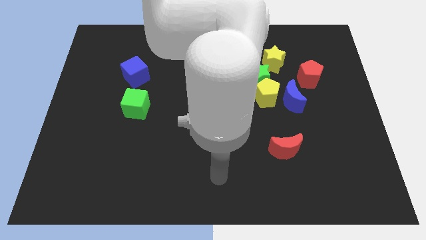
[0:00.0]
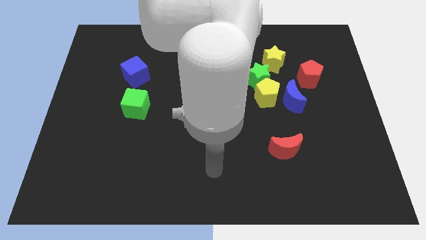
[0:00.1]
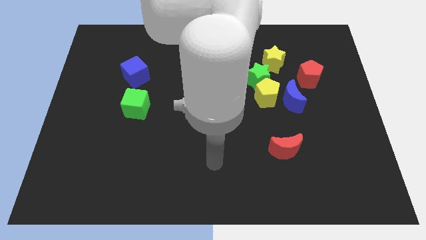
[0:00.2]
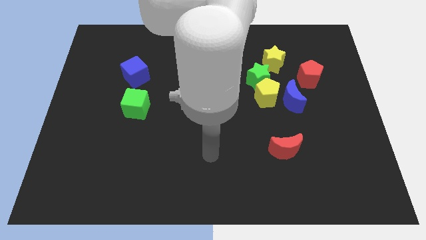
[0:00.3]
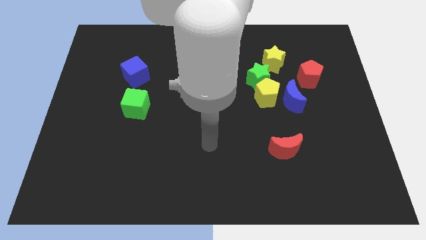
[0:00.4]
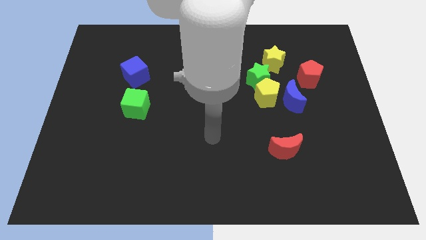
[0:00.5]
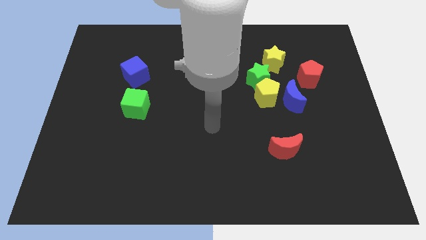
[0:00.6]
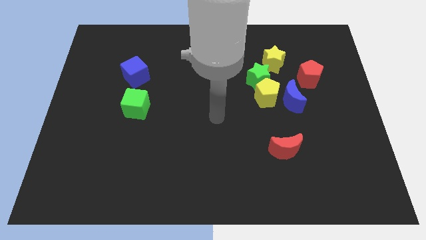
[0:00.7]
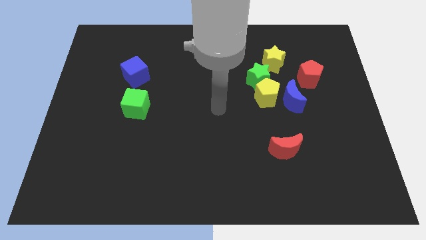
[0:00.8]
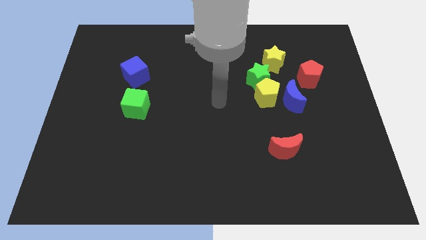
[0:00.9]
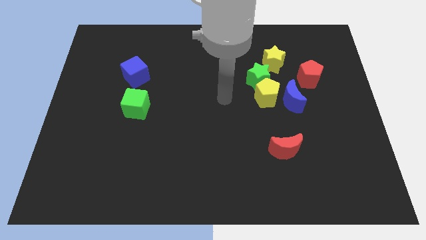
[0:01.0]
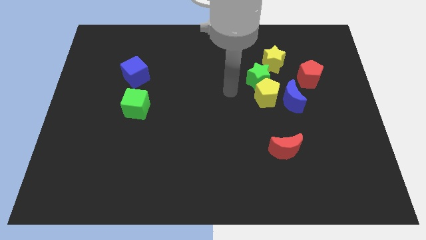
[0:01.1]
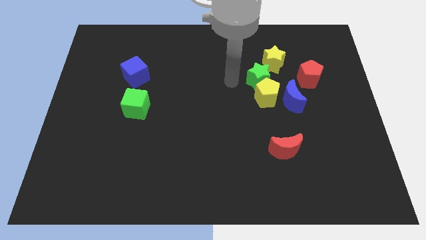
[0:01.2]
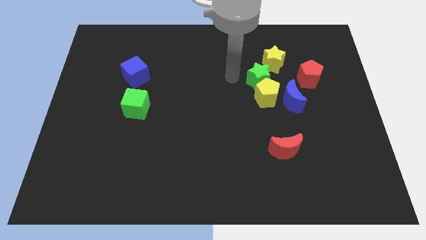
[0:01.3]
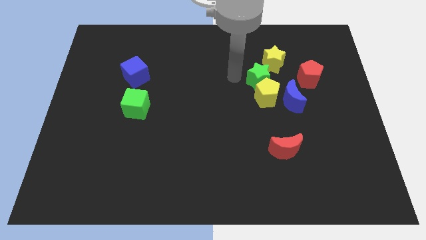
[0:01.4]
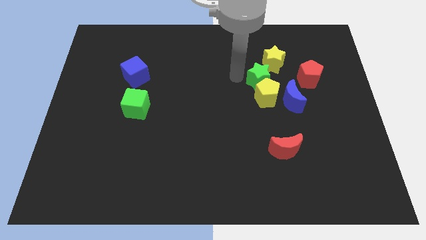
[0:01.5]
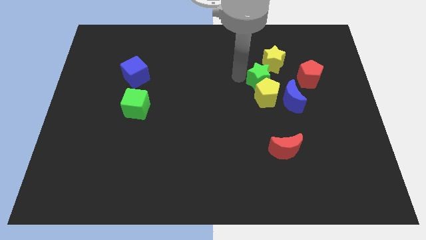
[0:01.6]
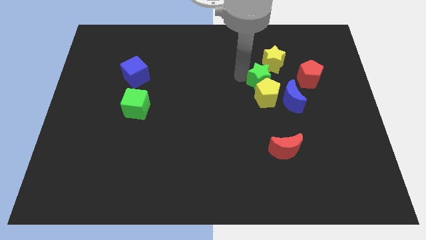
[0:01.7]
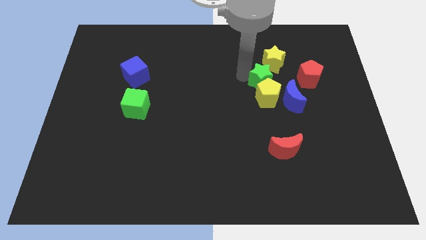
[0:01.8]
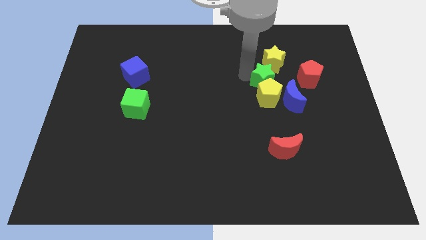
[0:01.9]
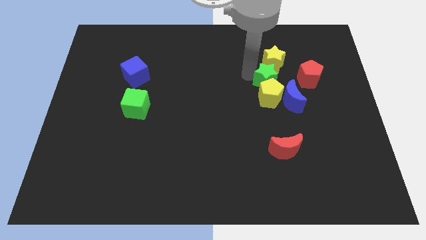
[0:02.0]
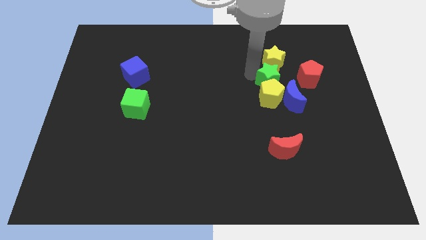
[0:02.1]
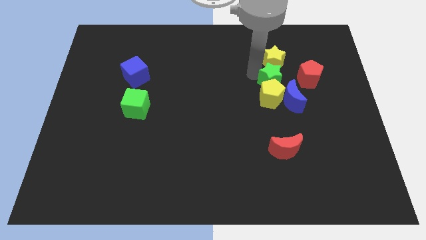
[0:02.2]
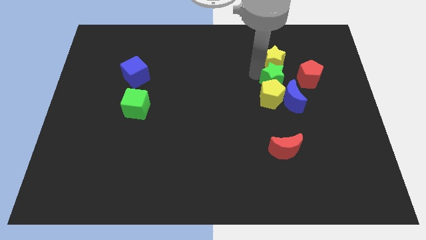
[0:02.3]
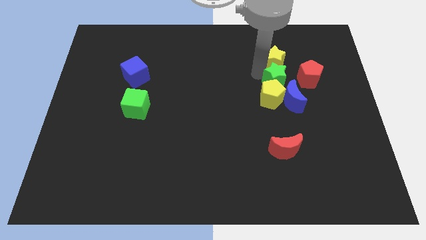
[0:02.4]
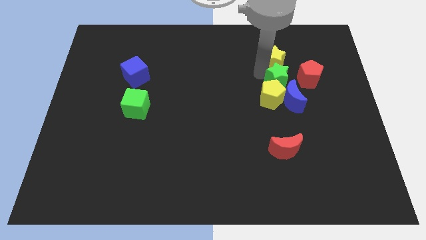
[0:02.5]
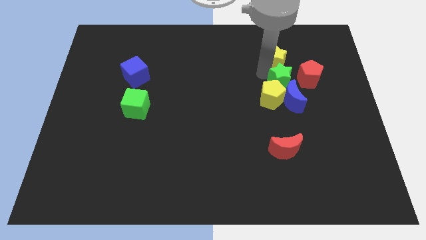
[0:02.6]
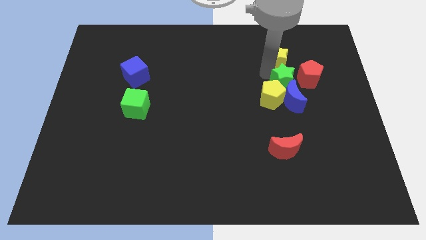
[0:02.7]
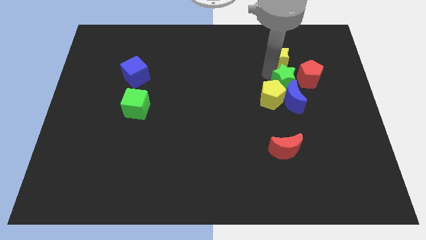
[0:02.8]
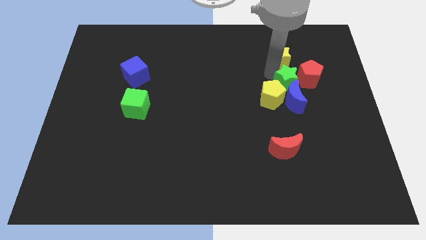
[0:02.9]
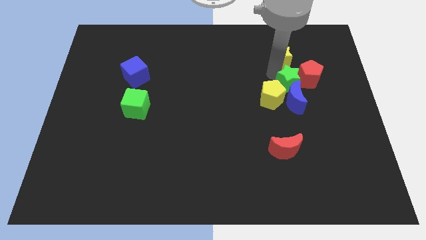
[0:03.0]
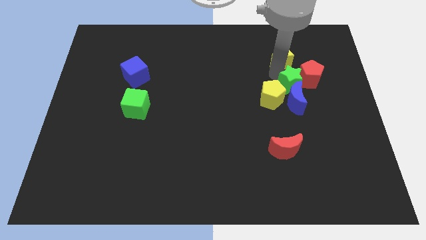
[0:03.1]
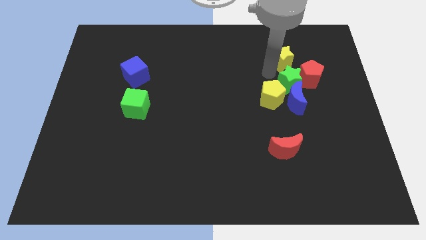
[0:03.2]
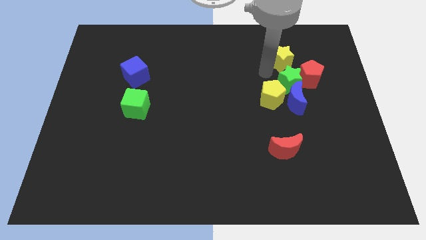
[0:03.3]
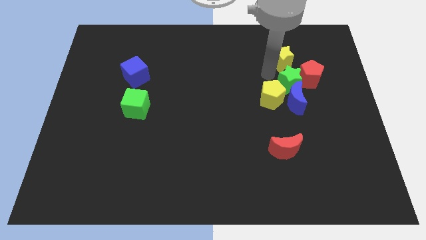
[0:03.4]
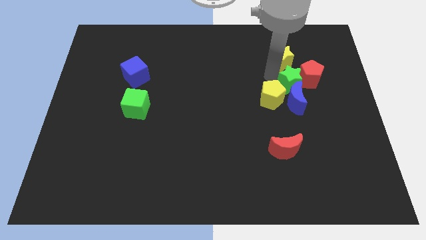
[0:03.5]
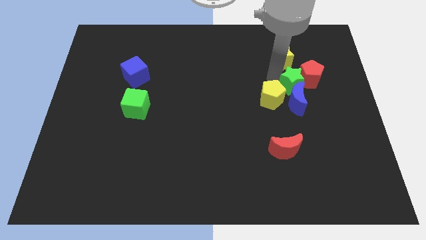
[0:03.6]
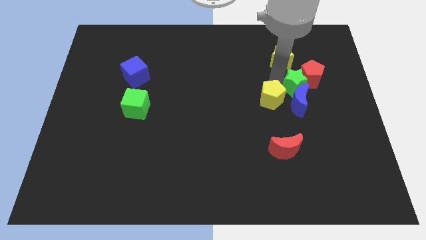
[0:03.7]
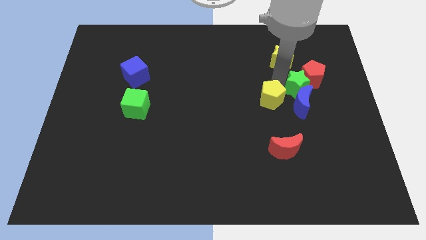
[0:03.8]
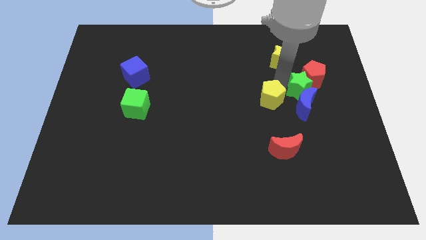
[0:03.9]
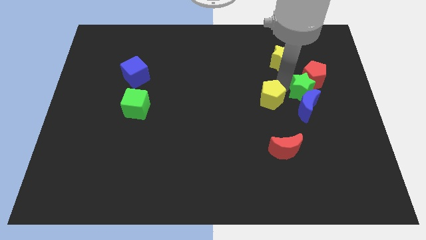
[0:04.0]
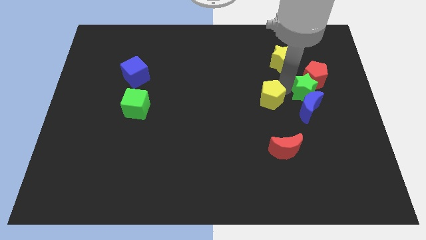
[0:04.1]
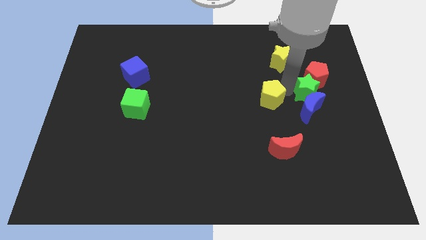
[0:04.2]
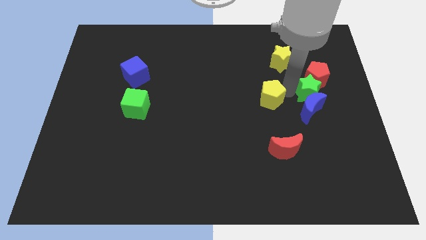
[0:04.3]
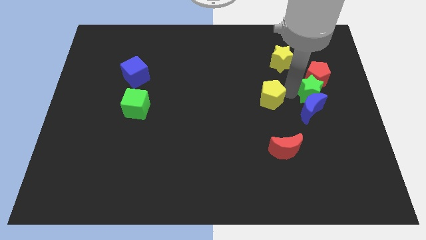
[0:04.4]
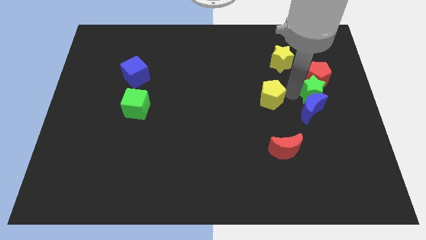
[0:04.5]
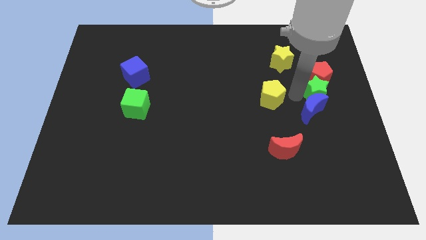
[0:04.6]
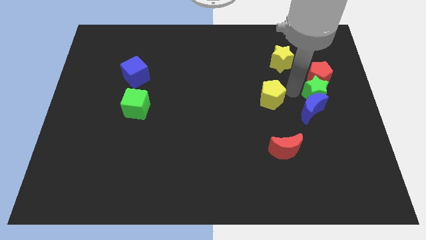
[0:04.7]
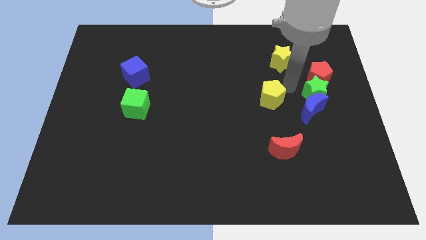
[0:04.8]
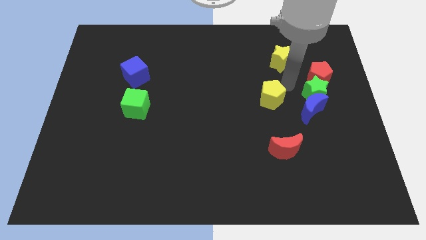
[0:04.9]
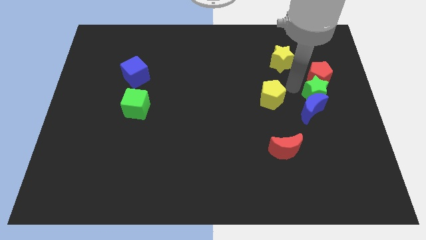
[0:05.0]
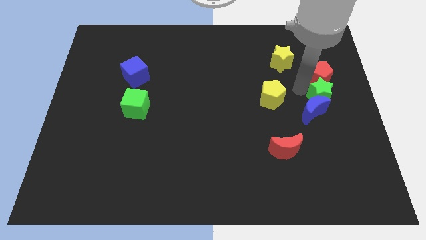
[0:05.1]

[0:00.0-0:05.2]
slide the green star to the right side of the board

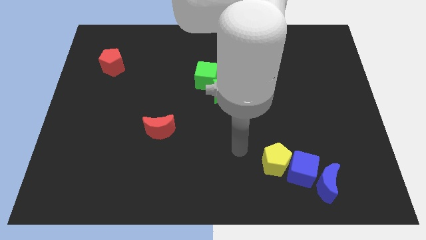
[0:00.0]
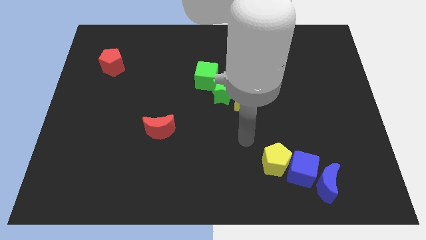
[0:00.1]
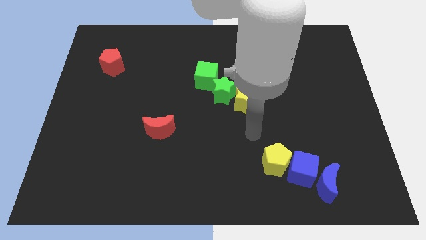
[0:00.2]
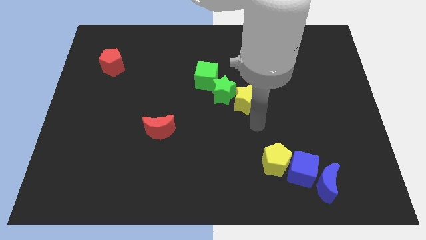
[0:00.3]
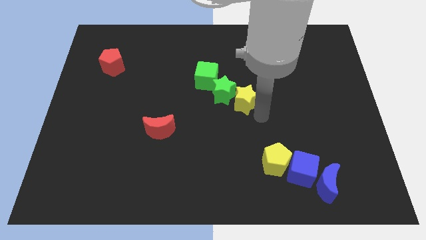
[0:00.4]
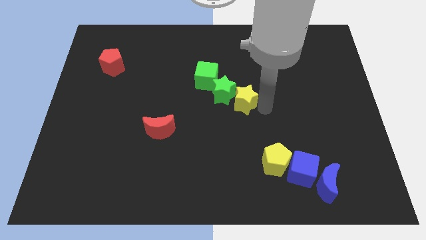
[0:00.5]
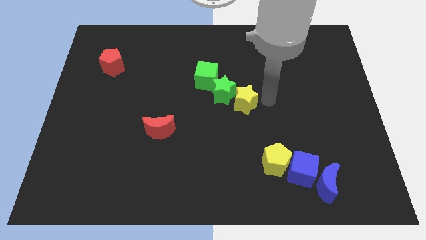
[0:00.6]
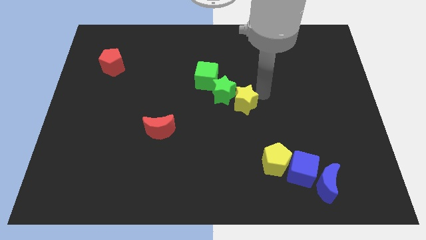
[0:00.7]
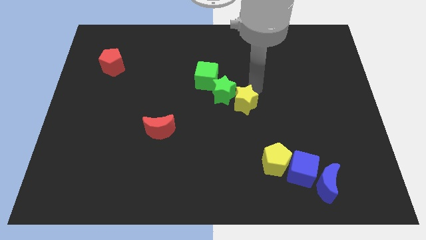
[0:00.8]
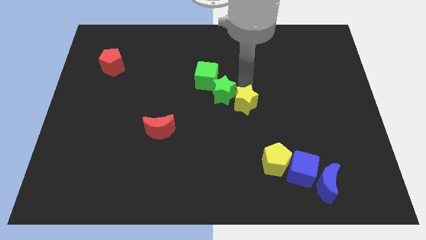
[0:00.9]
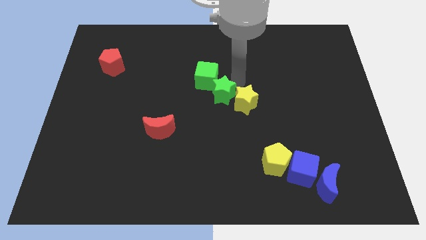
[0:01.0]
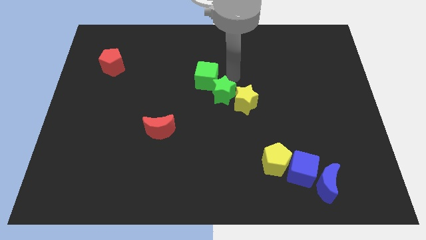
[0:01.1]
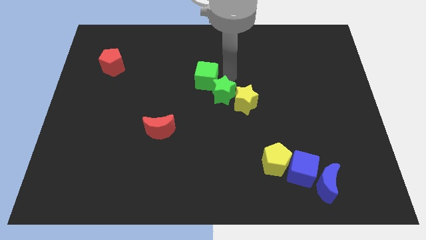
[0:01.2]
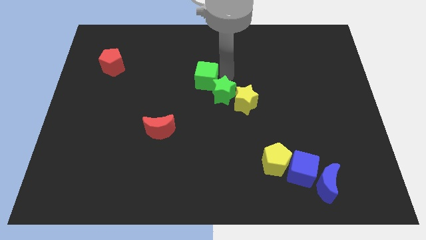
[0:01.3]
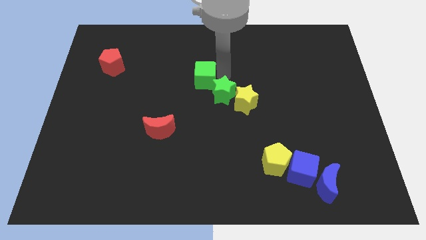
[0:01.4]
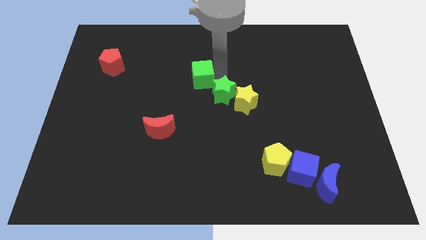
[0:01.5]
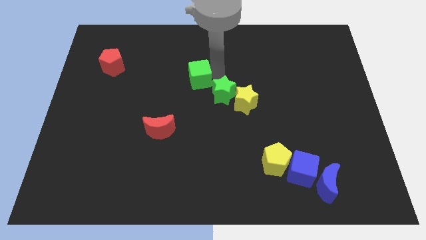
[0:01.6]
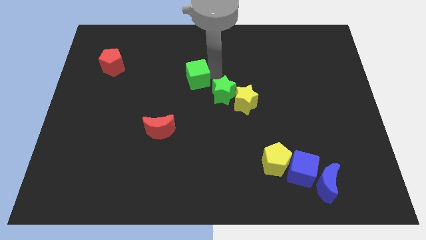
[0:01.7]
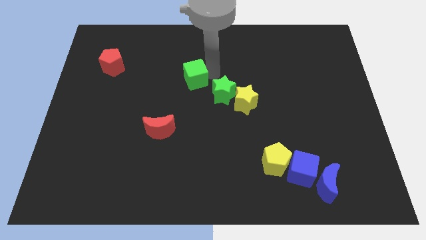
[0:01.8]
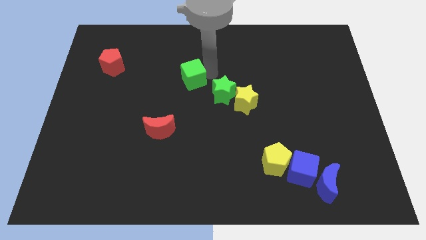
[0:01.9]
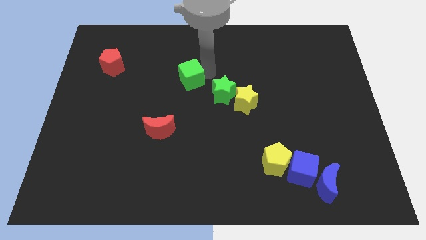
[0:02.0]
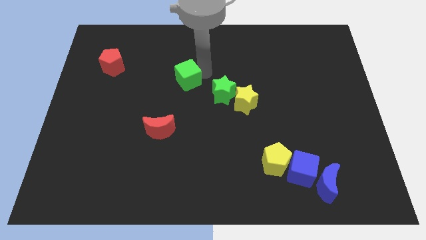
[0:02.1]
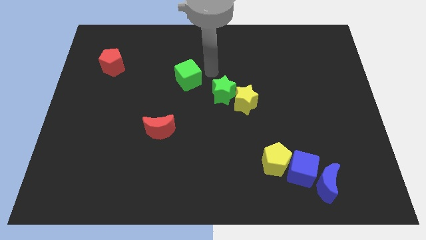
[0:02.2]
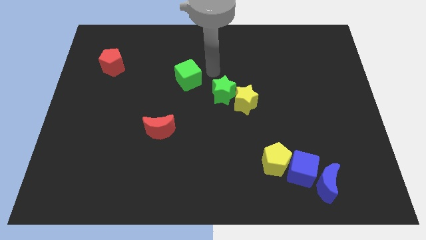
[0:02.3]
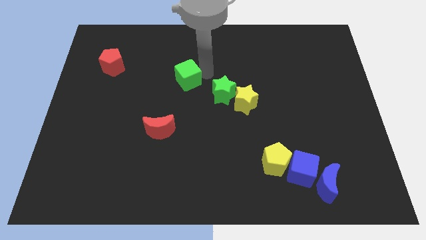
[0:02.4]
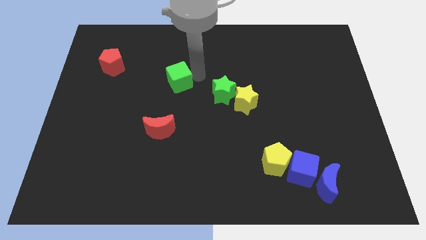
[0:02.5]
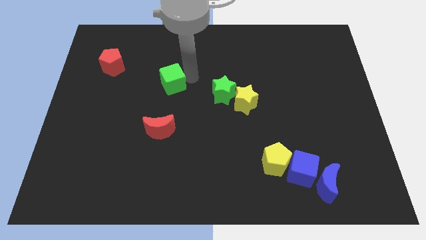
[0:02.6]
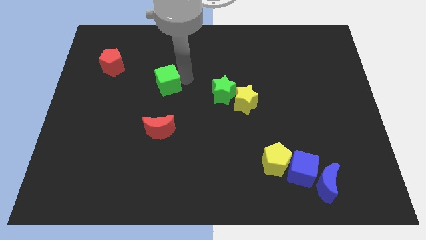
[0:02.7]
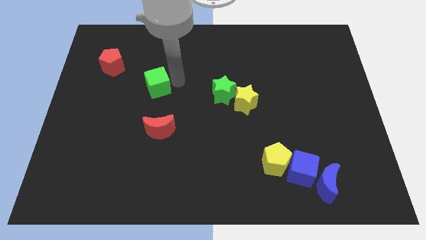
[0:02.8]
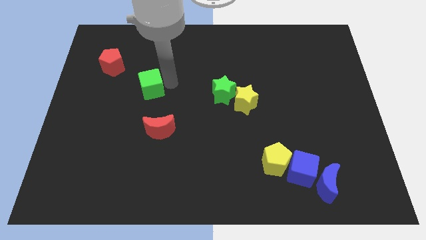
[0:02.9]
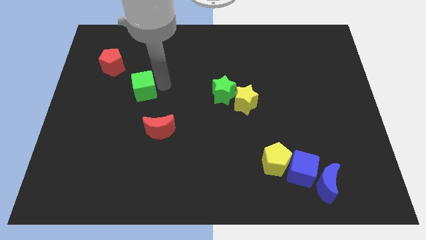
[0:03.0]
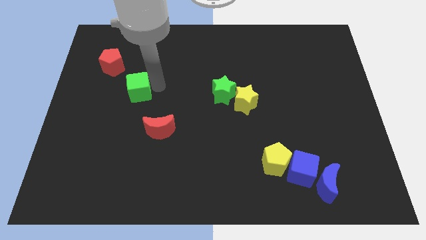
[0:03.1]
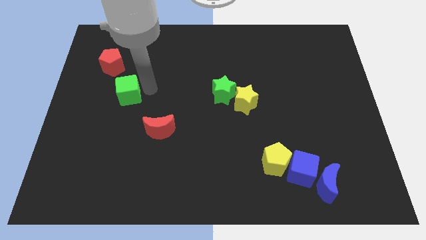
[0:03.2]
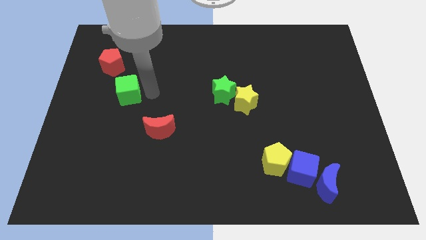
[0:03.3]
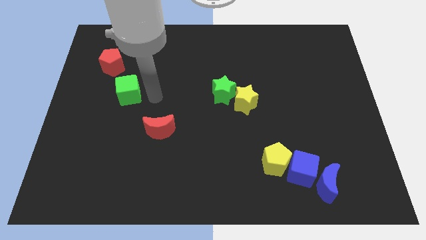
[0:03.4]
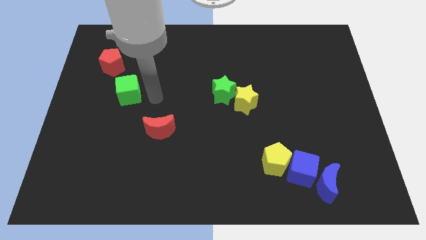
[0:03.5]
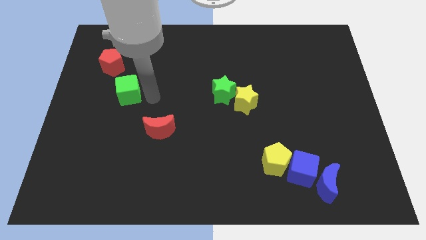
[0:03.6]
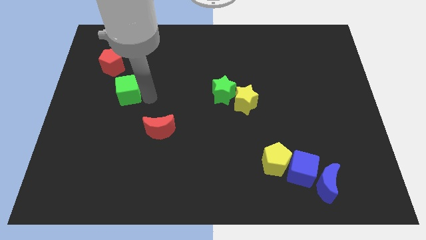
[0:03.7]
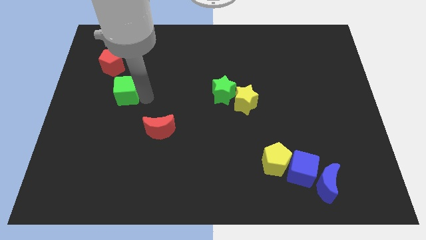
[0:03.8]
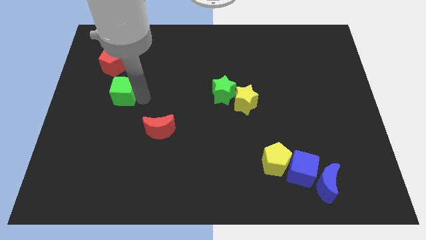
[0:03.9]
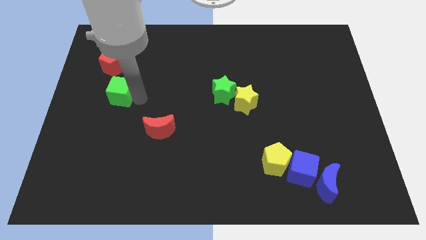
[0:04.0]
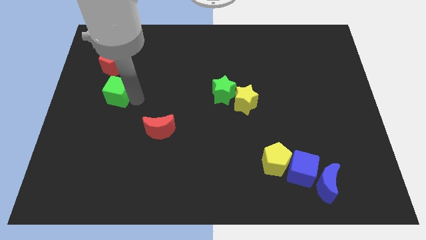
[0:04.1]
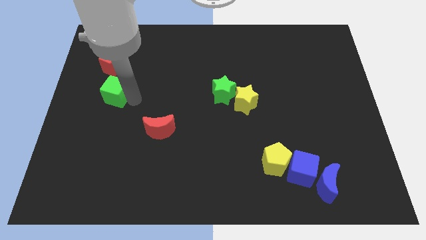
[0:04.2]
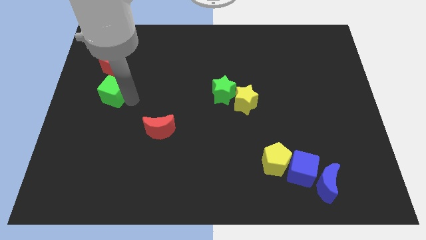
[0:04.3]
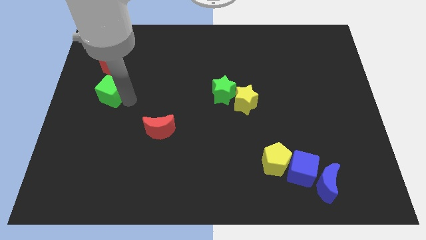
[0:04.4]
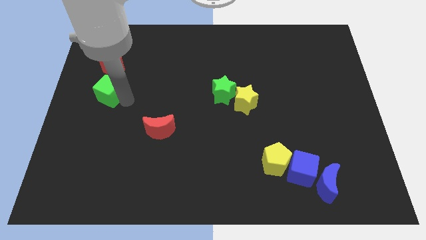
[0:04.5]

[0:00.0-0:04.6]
put the green cube to the left side
